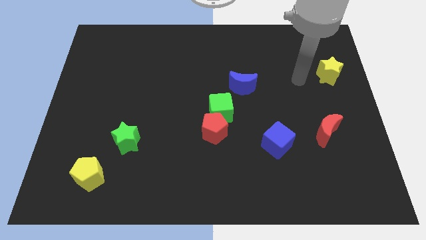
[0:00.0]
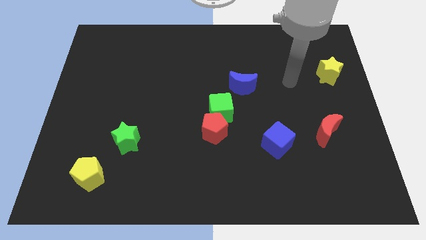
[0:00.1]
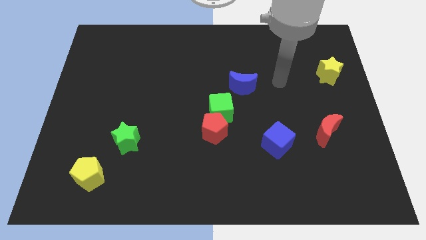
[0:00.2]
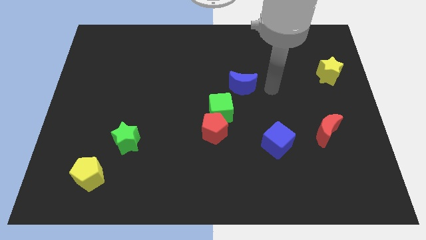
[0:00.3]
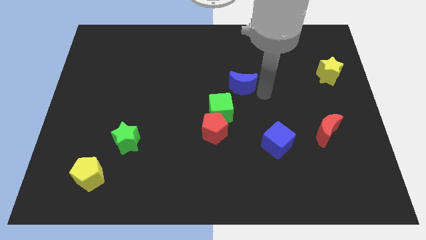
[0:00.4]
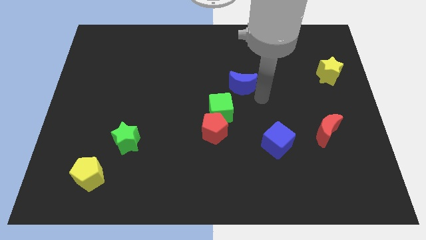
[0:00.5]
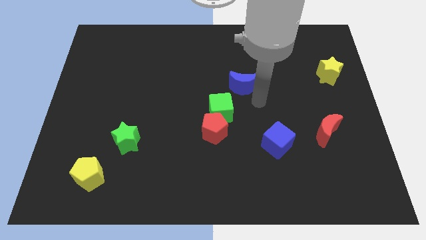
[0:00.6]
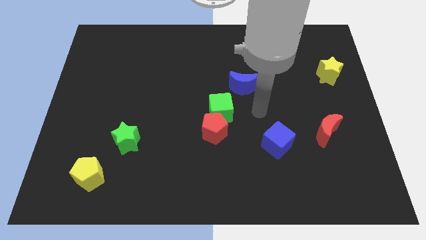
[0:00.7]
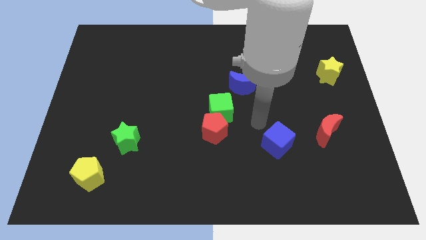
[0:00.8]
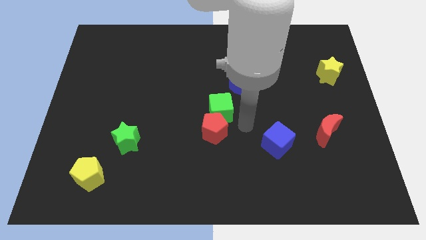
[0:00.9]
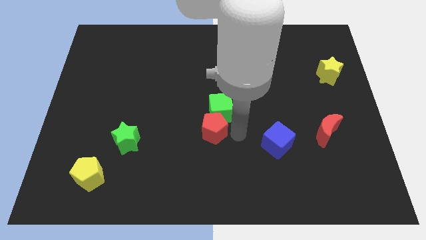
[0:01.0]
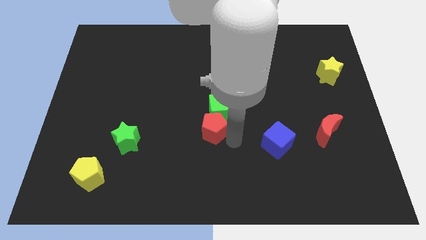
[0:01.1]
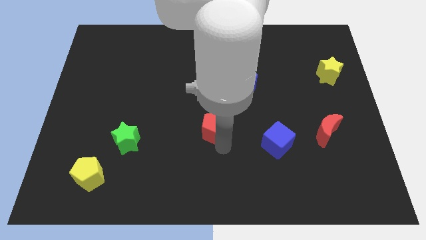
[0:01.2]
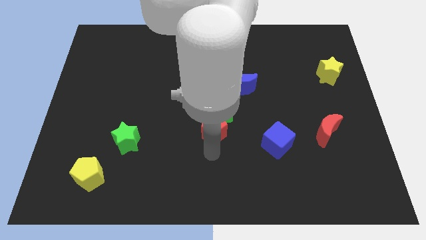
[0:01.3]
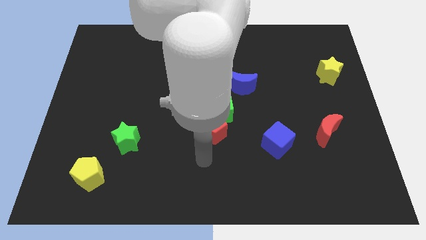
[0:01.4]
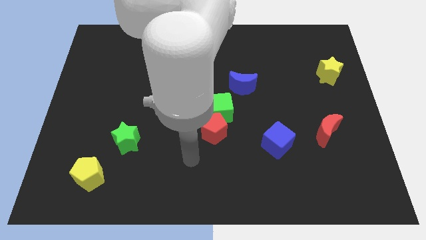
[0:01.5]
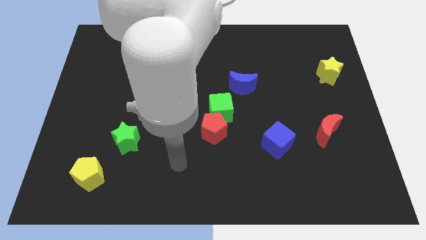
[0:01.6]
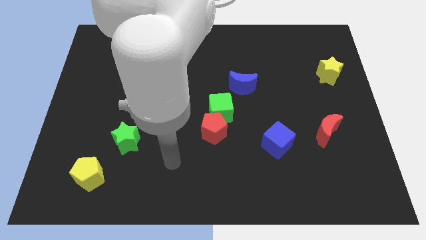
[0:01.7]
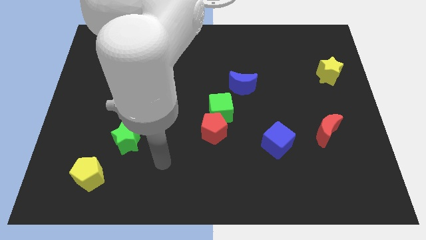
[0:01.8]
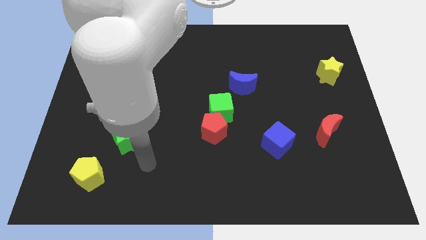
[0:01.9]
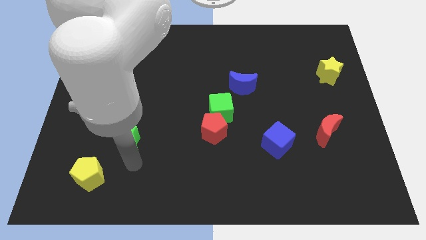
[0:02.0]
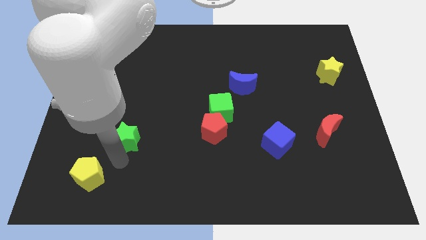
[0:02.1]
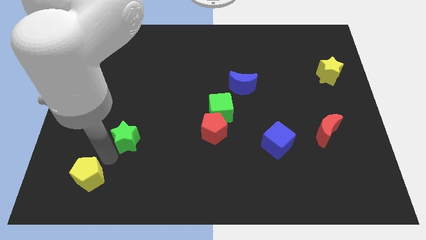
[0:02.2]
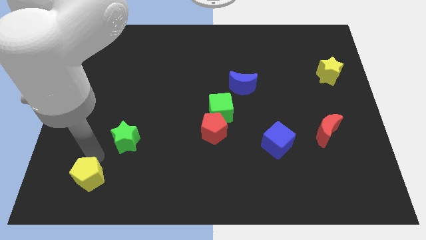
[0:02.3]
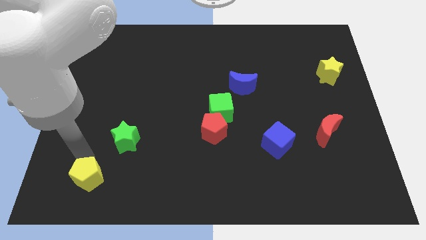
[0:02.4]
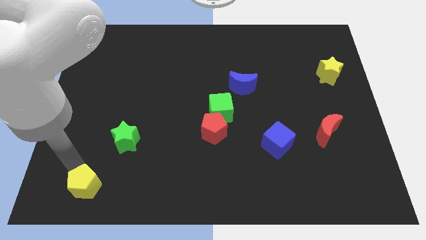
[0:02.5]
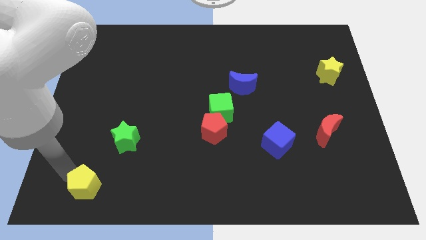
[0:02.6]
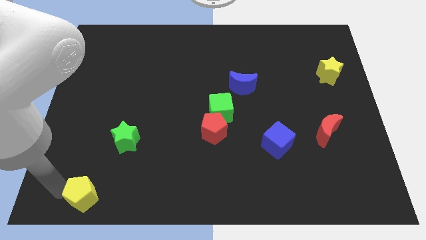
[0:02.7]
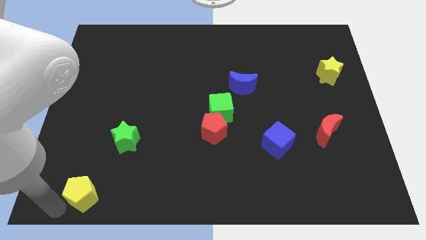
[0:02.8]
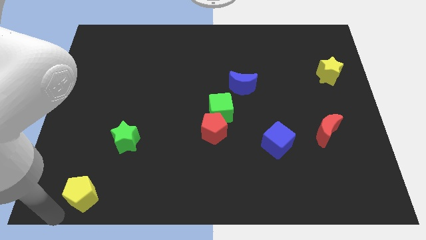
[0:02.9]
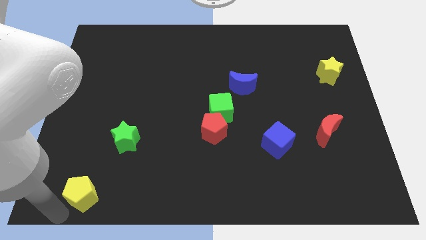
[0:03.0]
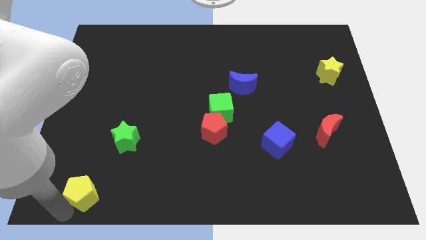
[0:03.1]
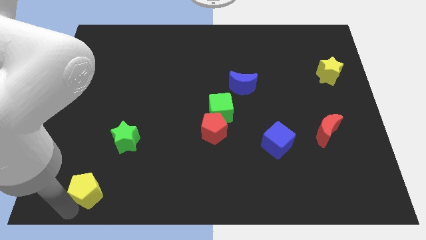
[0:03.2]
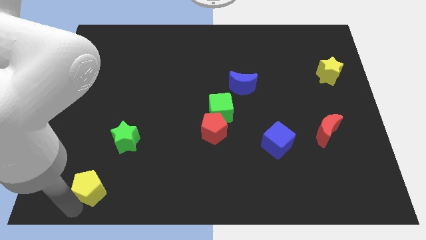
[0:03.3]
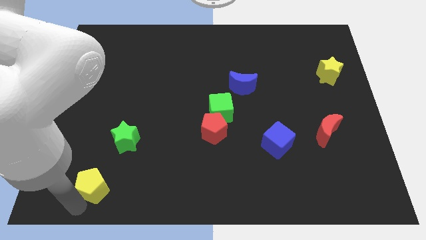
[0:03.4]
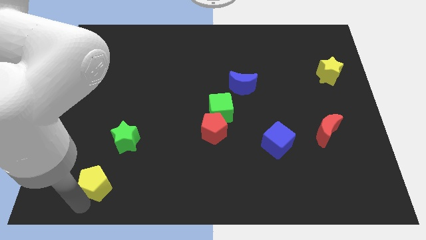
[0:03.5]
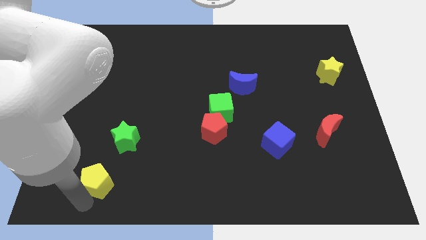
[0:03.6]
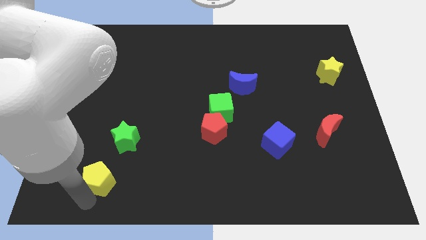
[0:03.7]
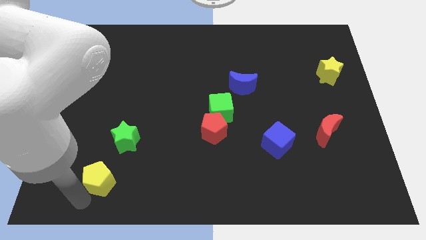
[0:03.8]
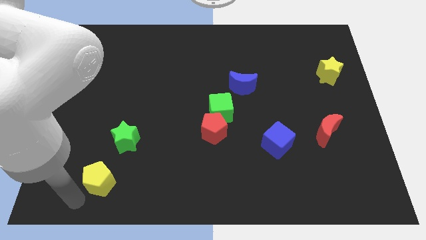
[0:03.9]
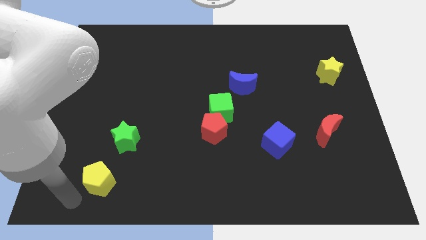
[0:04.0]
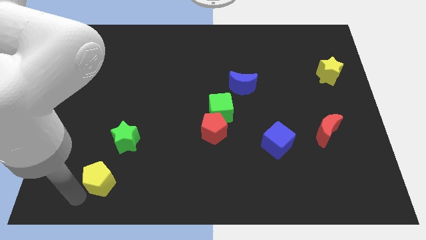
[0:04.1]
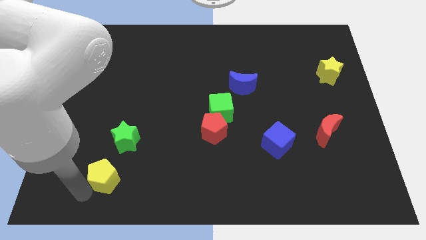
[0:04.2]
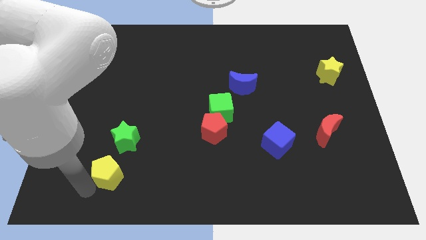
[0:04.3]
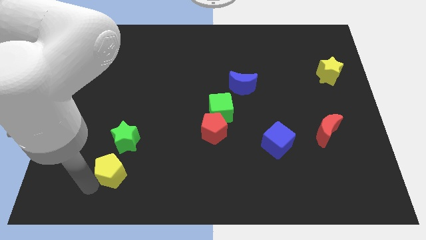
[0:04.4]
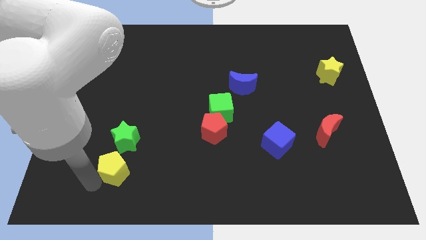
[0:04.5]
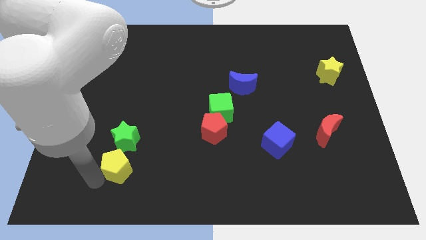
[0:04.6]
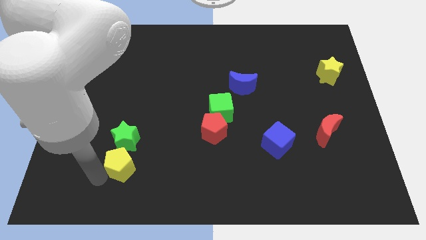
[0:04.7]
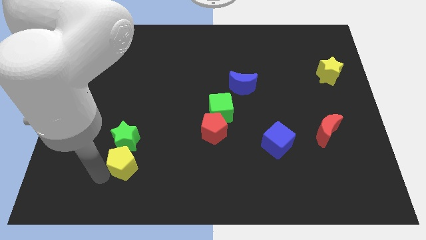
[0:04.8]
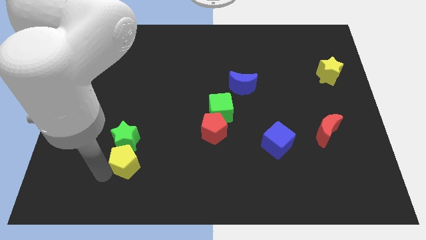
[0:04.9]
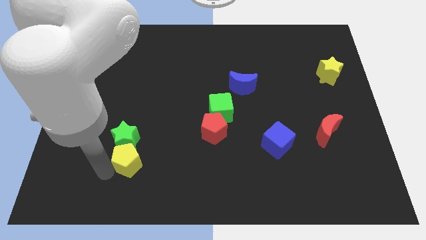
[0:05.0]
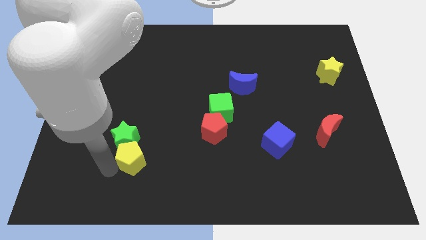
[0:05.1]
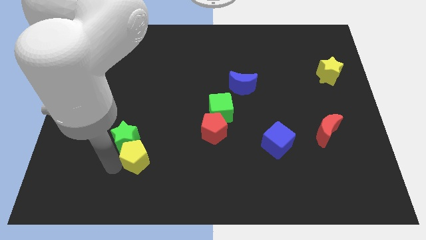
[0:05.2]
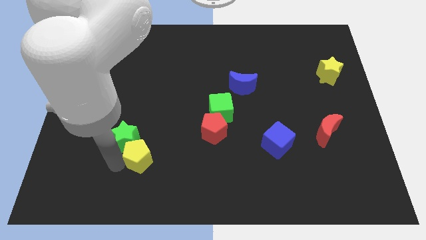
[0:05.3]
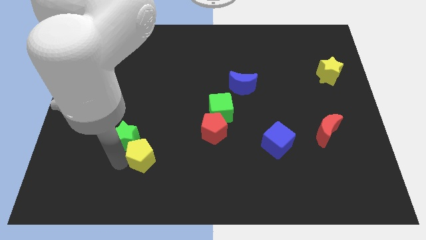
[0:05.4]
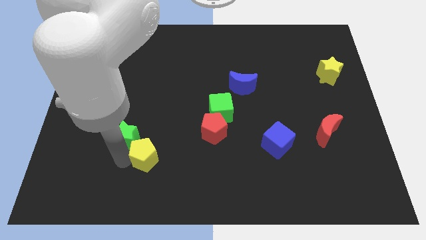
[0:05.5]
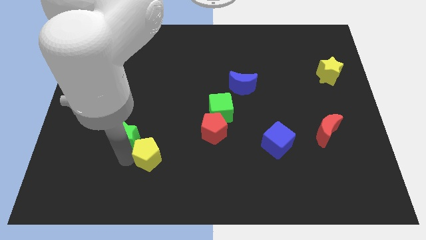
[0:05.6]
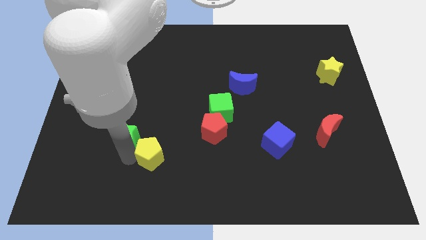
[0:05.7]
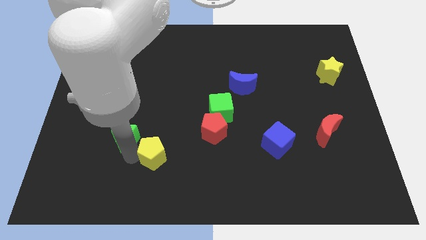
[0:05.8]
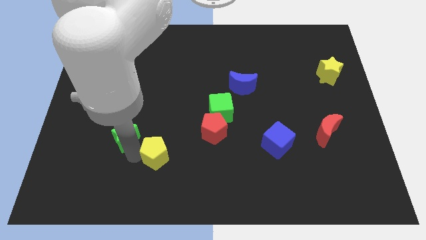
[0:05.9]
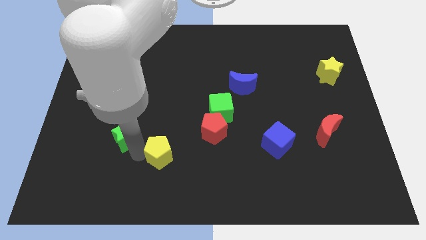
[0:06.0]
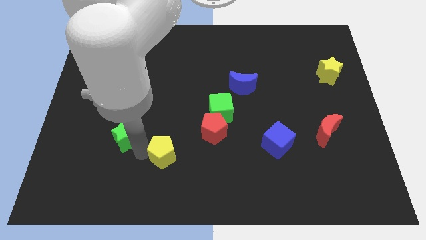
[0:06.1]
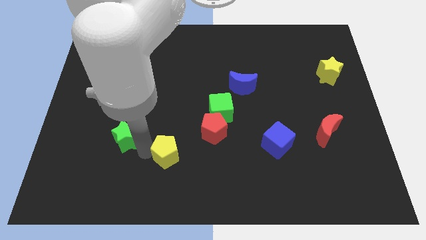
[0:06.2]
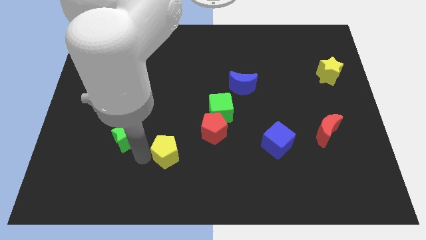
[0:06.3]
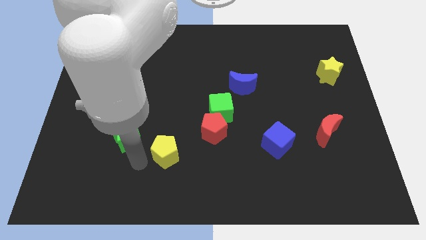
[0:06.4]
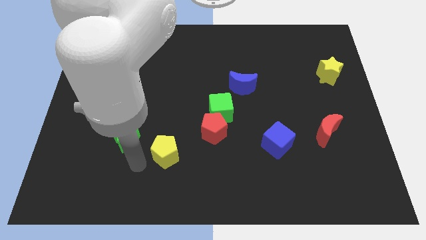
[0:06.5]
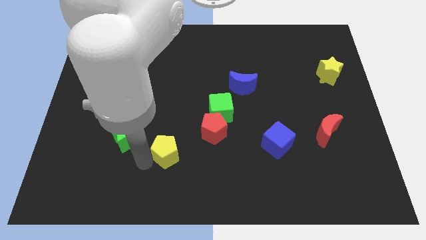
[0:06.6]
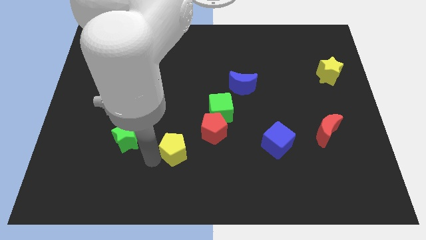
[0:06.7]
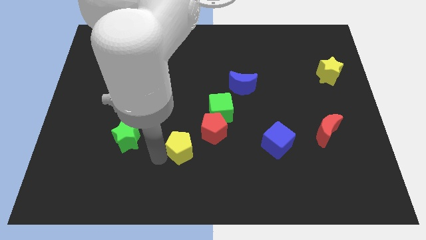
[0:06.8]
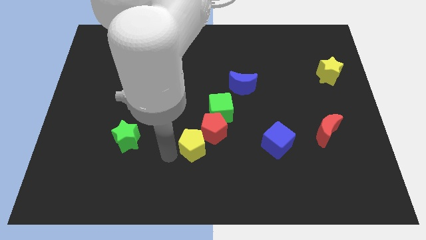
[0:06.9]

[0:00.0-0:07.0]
put the yellow pentagon towards the red pentagon
